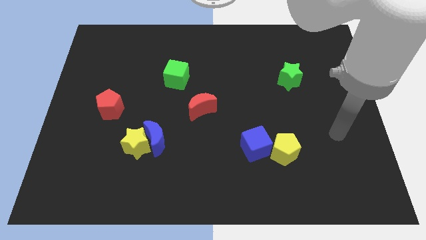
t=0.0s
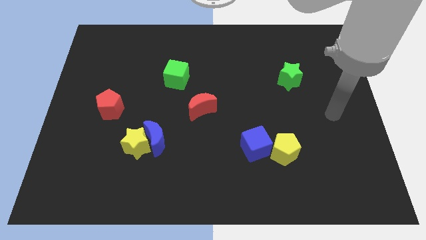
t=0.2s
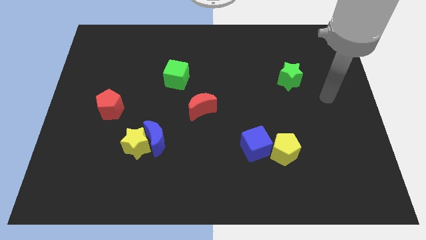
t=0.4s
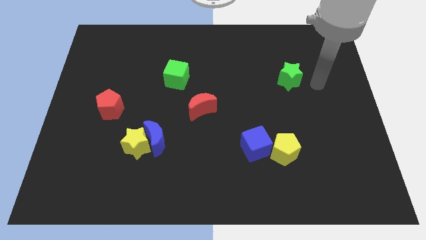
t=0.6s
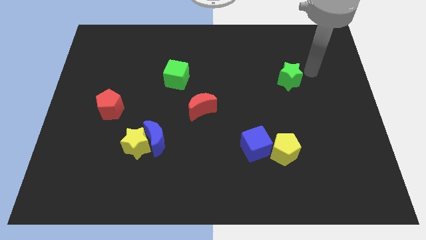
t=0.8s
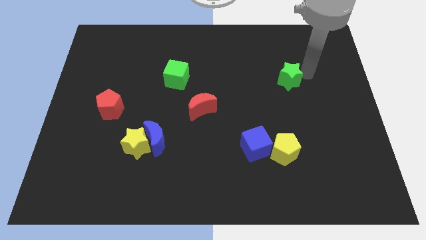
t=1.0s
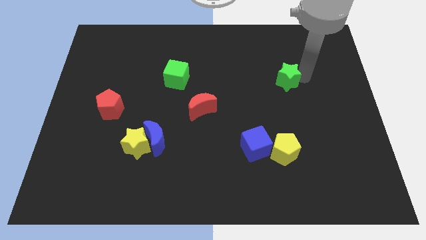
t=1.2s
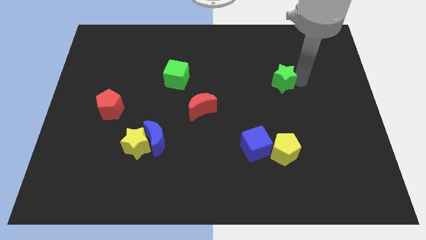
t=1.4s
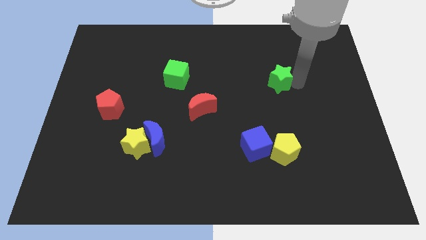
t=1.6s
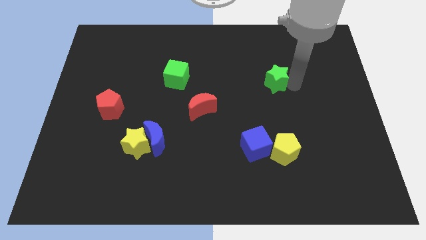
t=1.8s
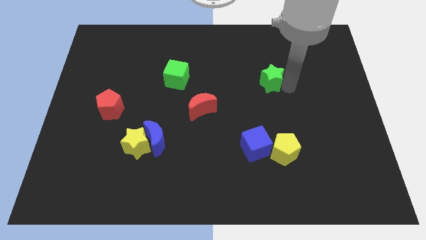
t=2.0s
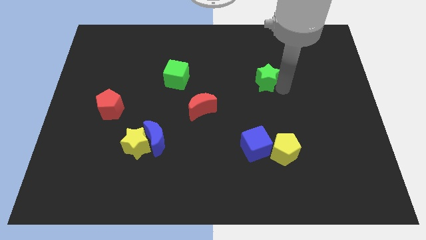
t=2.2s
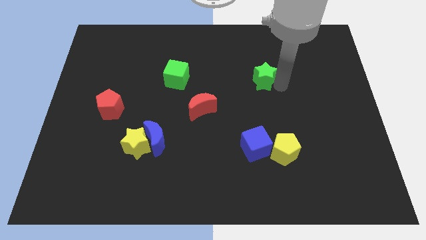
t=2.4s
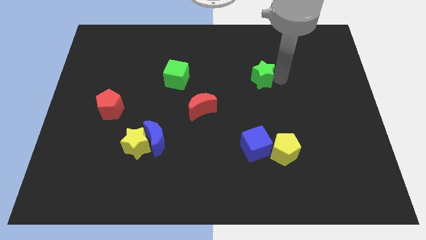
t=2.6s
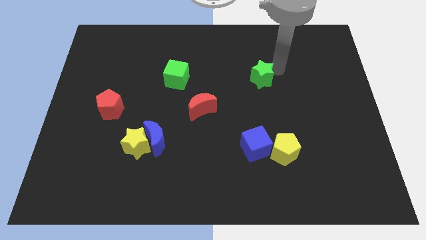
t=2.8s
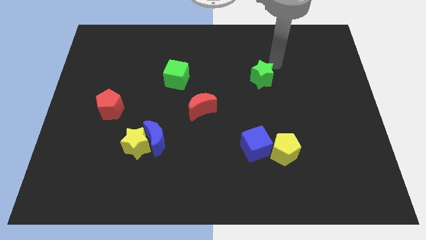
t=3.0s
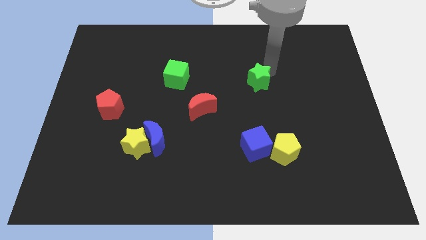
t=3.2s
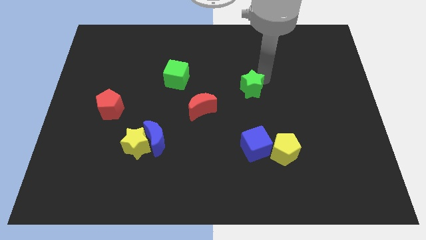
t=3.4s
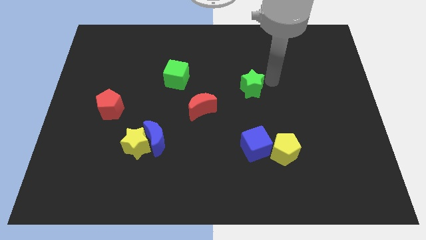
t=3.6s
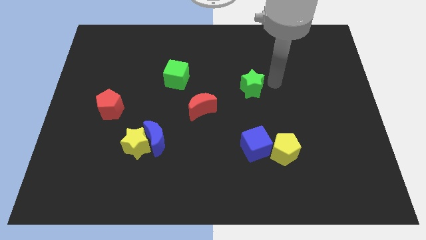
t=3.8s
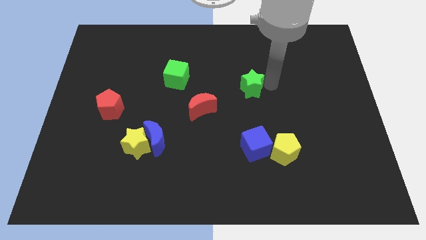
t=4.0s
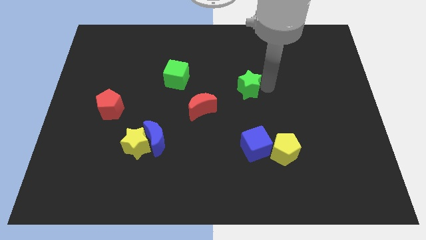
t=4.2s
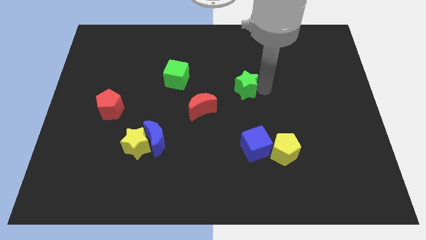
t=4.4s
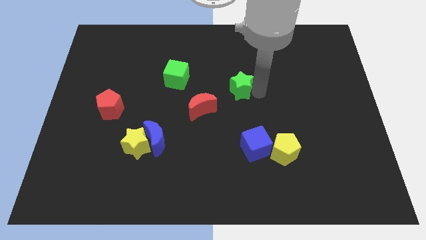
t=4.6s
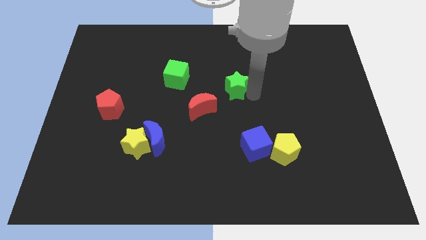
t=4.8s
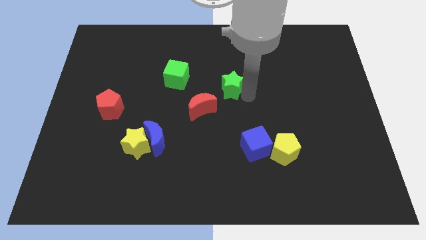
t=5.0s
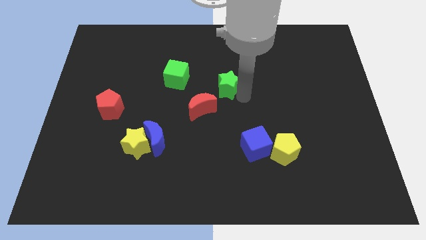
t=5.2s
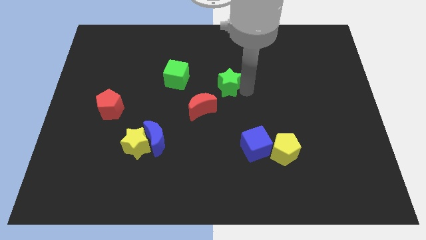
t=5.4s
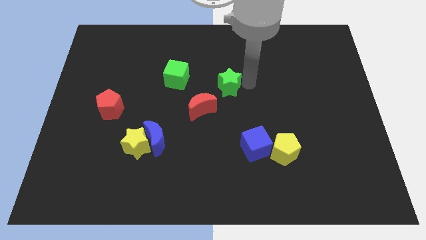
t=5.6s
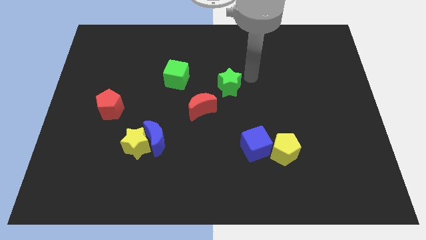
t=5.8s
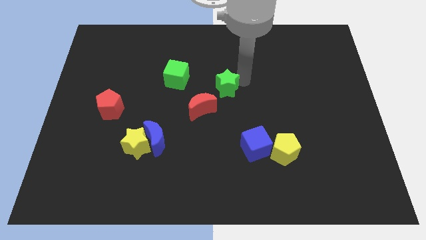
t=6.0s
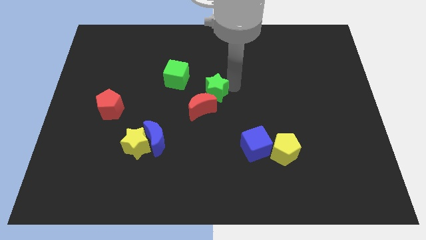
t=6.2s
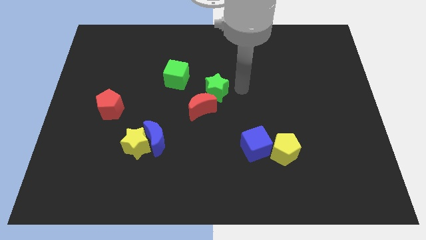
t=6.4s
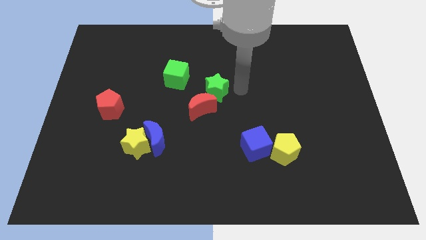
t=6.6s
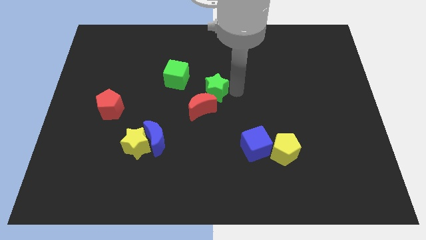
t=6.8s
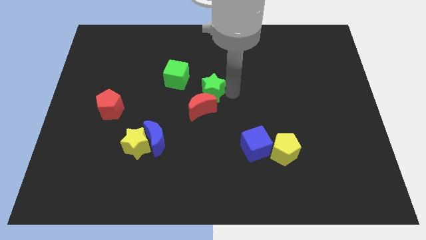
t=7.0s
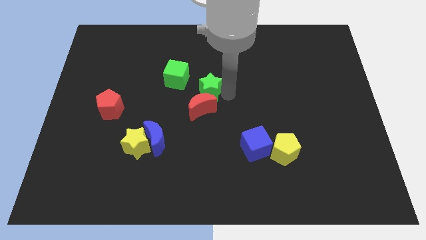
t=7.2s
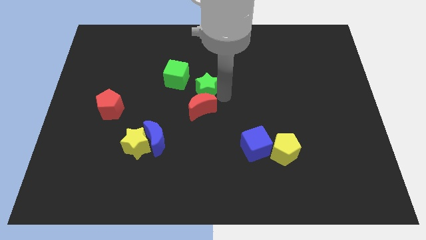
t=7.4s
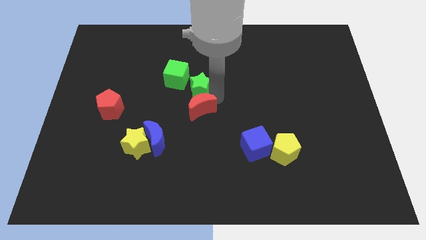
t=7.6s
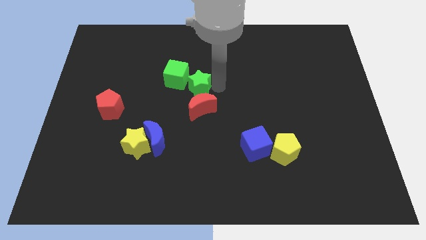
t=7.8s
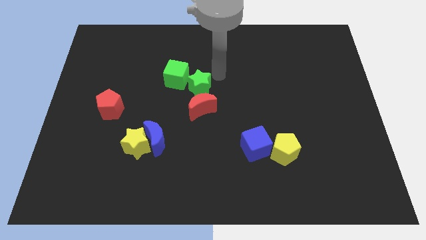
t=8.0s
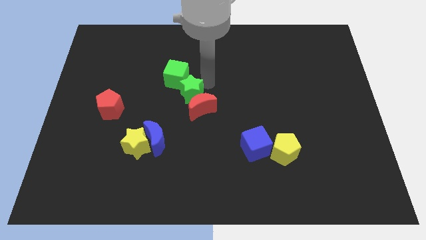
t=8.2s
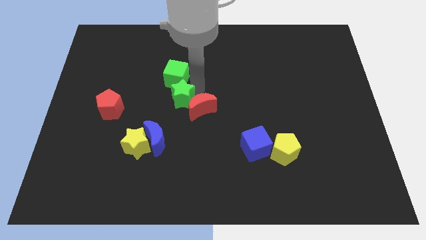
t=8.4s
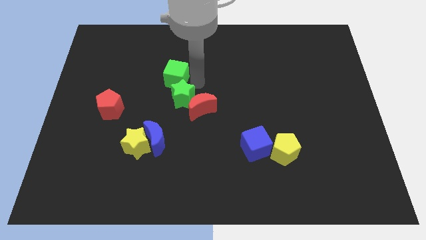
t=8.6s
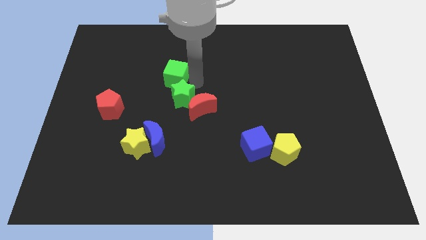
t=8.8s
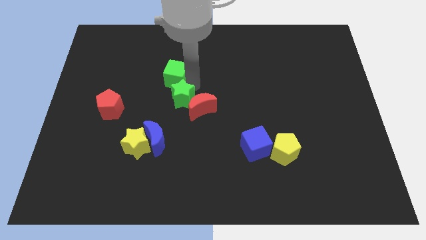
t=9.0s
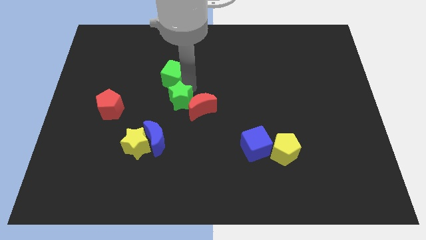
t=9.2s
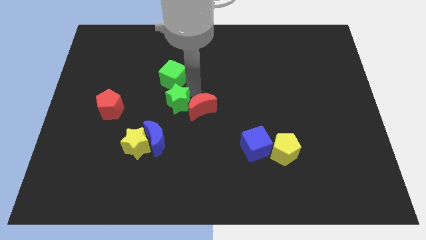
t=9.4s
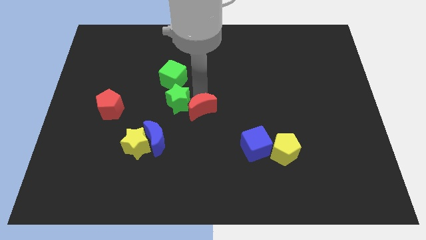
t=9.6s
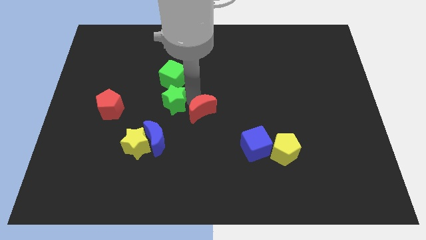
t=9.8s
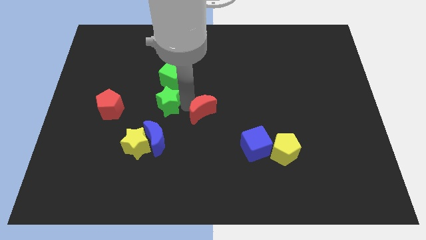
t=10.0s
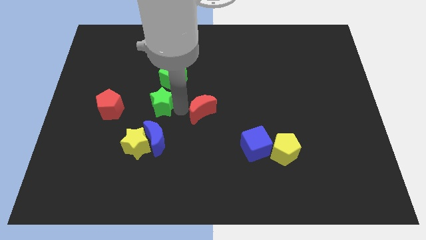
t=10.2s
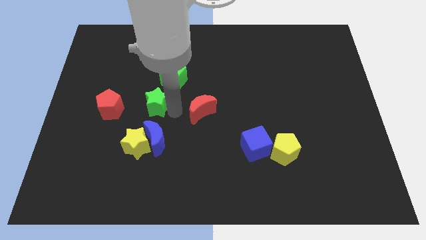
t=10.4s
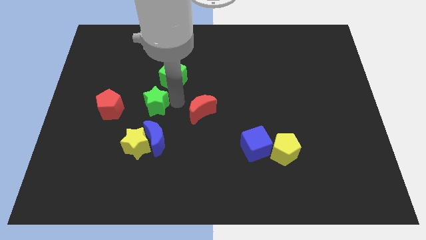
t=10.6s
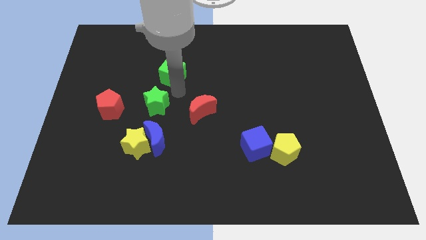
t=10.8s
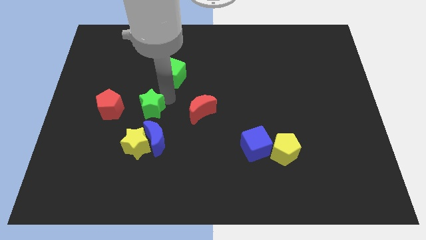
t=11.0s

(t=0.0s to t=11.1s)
move the green star to the top left of the blue moon
